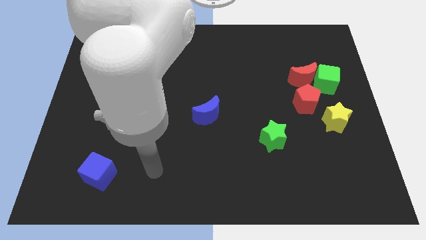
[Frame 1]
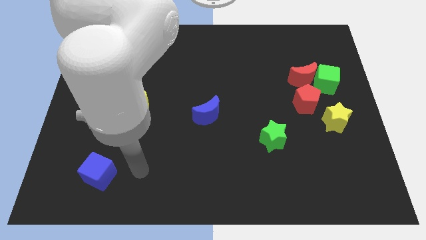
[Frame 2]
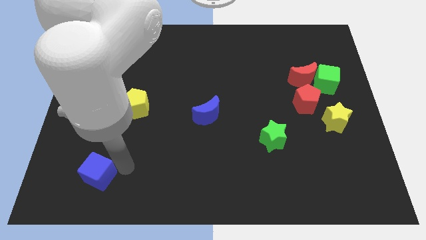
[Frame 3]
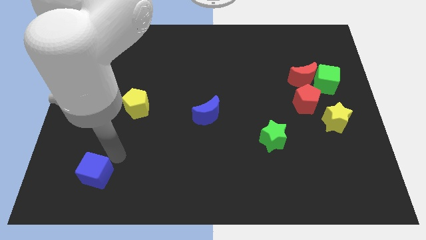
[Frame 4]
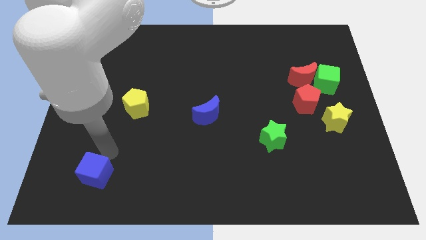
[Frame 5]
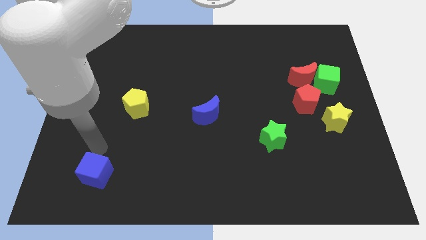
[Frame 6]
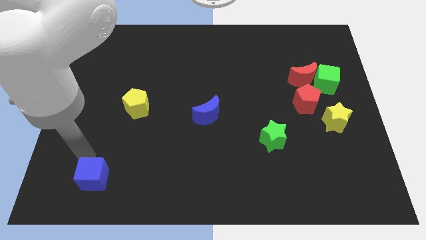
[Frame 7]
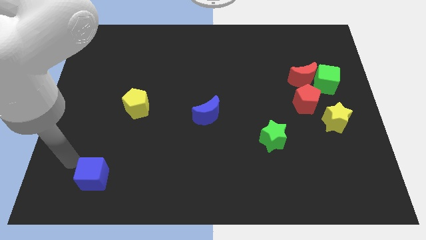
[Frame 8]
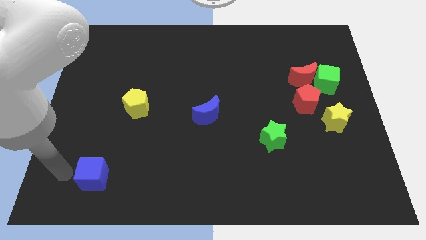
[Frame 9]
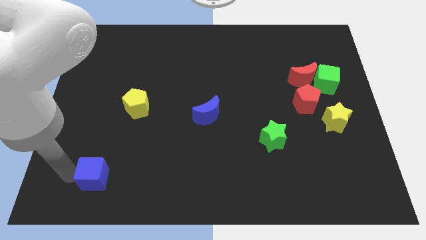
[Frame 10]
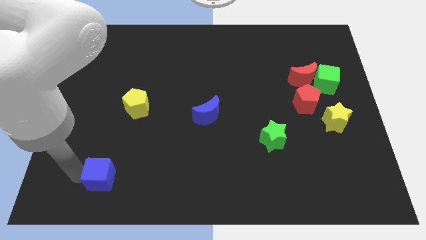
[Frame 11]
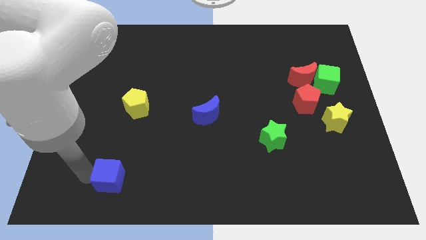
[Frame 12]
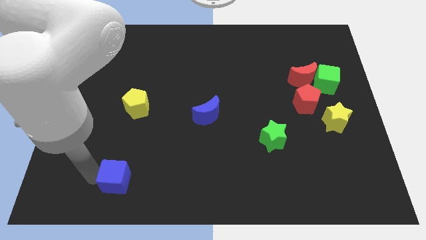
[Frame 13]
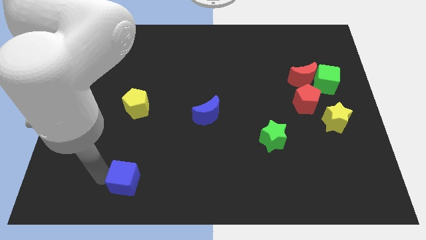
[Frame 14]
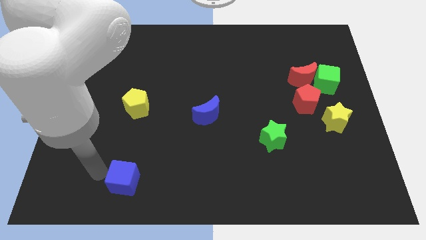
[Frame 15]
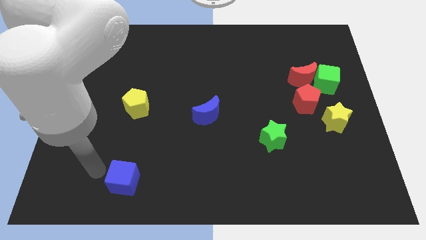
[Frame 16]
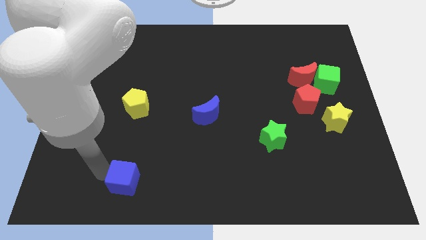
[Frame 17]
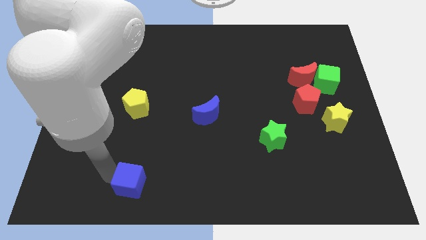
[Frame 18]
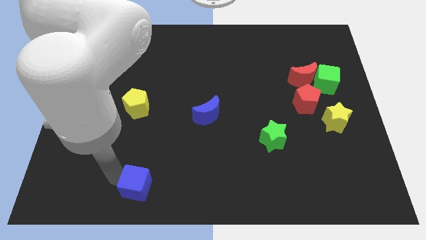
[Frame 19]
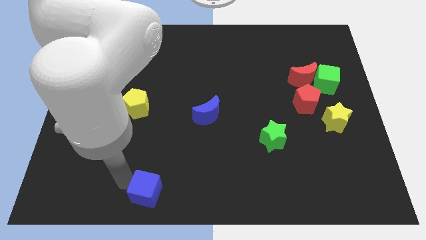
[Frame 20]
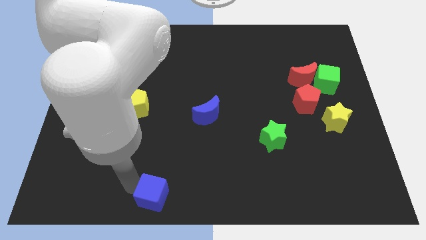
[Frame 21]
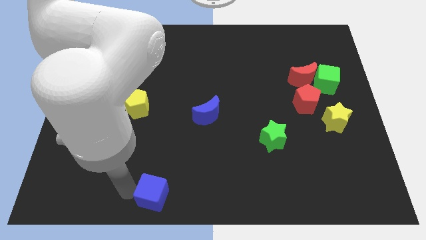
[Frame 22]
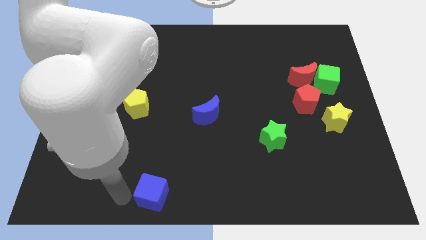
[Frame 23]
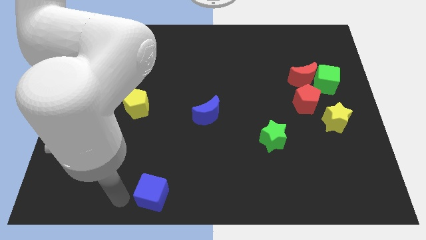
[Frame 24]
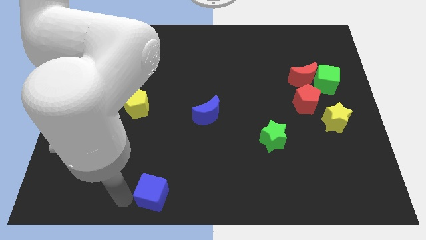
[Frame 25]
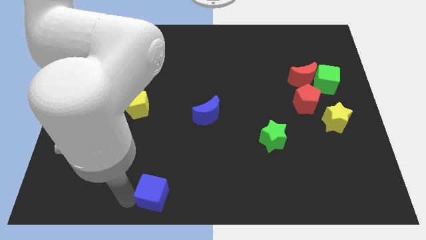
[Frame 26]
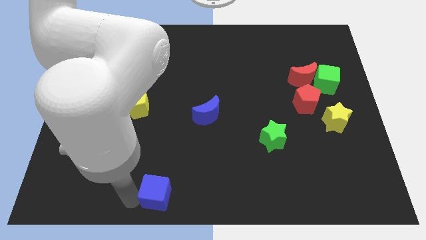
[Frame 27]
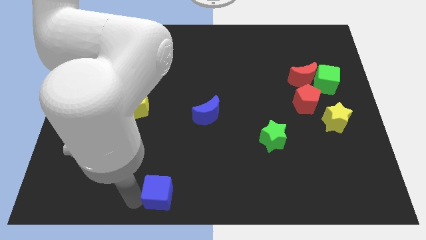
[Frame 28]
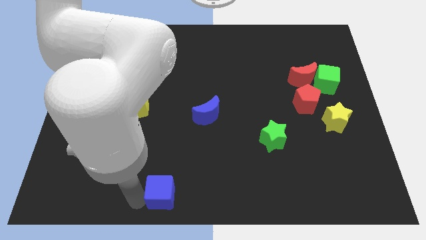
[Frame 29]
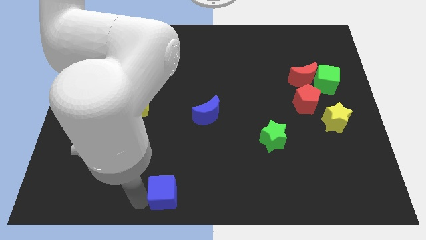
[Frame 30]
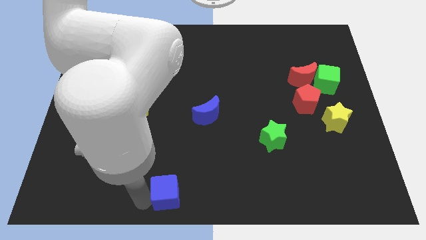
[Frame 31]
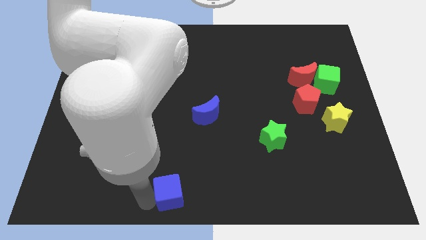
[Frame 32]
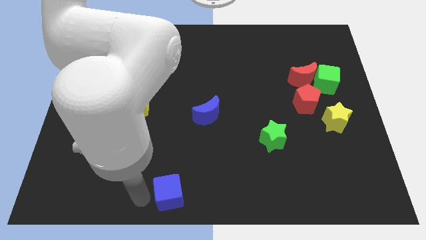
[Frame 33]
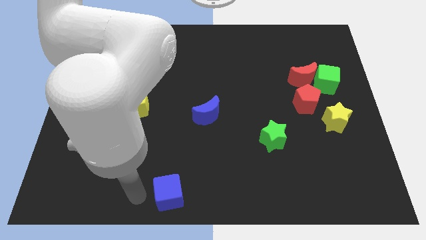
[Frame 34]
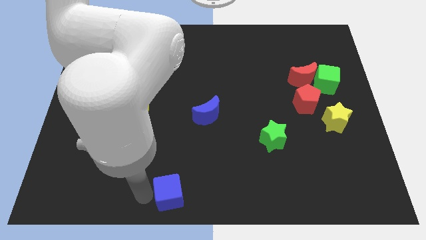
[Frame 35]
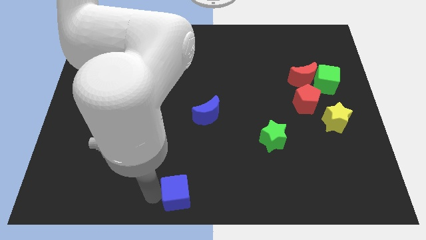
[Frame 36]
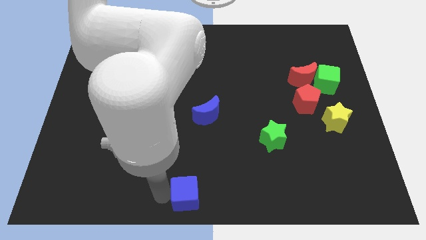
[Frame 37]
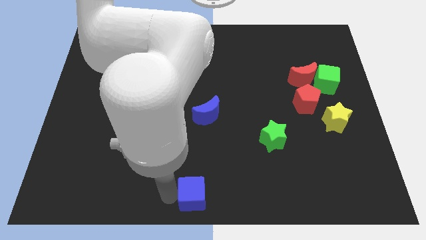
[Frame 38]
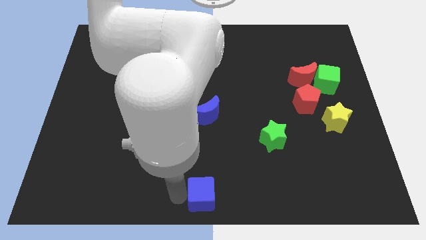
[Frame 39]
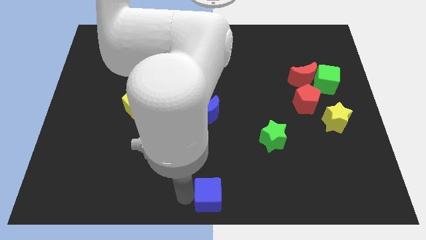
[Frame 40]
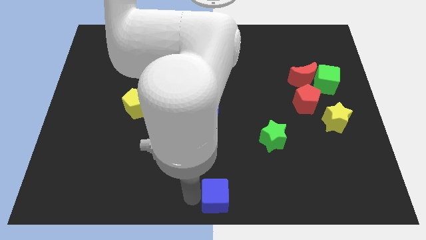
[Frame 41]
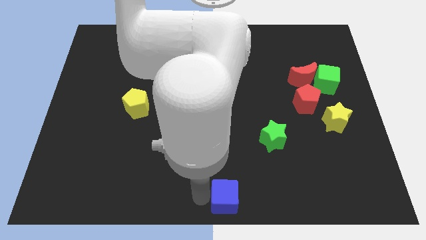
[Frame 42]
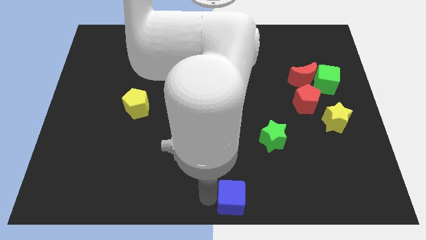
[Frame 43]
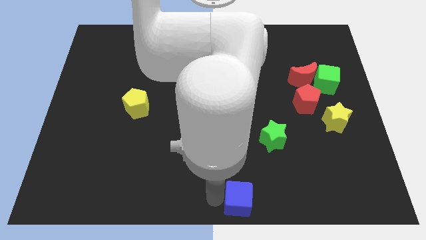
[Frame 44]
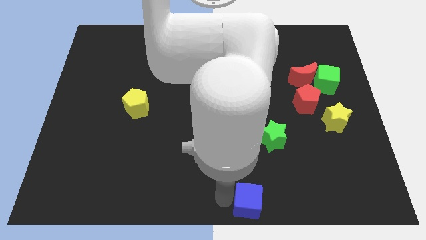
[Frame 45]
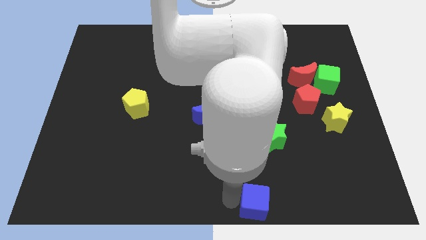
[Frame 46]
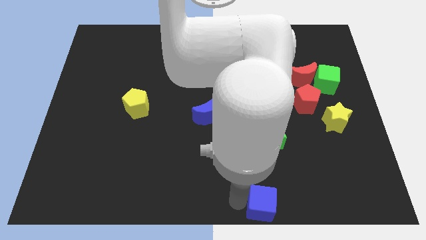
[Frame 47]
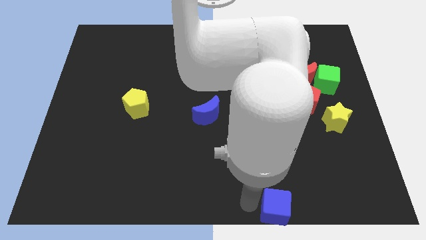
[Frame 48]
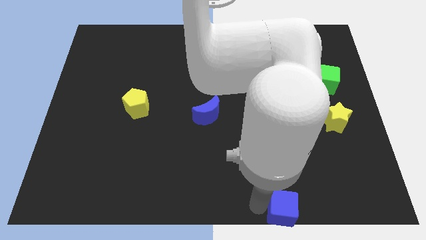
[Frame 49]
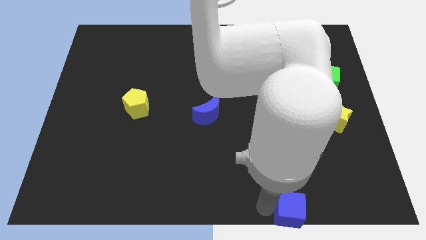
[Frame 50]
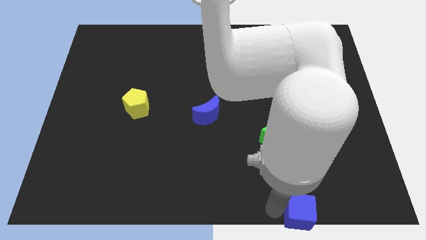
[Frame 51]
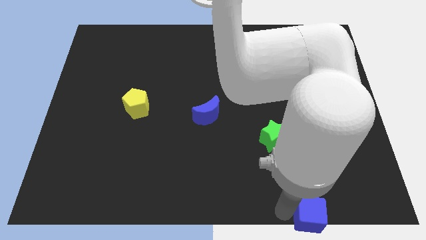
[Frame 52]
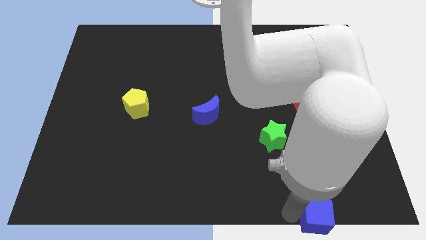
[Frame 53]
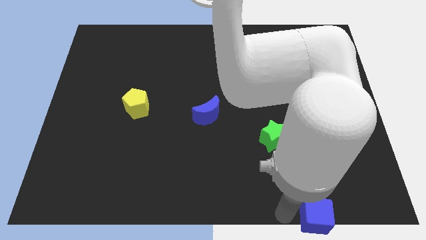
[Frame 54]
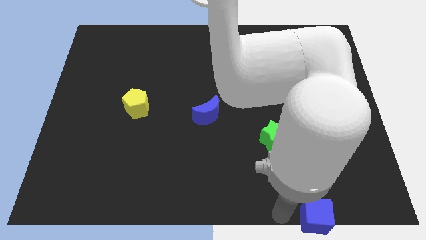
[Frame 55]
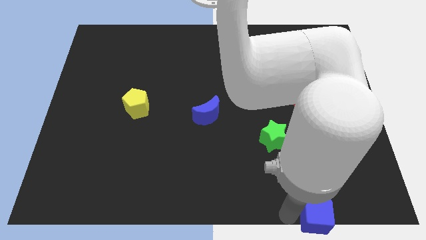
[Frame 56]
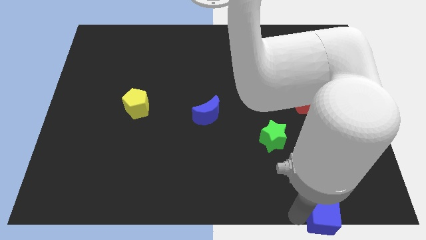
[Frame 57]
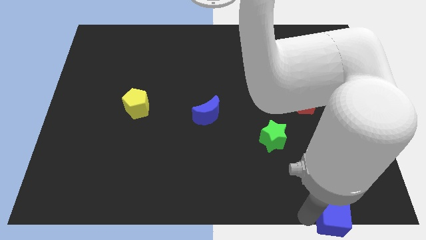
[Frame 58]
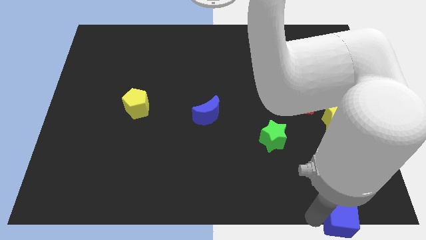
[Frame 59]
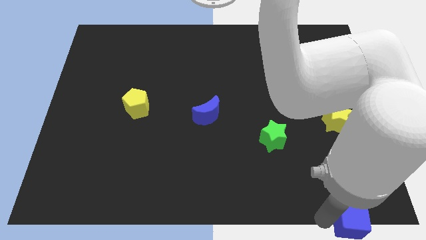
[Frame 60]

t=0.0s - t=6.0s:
put the blue cube to the bottom right corner

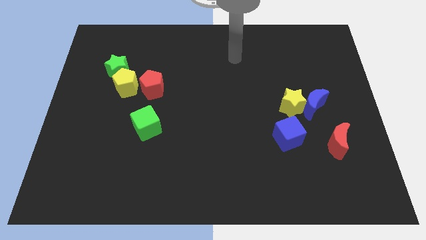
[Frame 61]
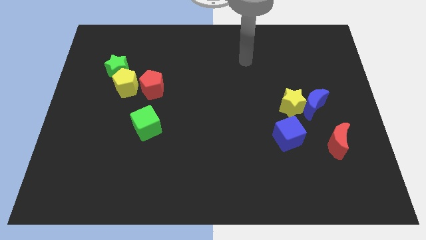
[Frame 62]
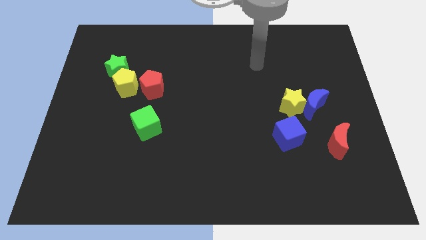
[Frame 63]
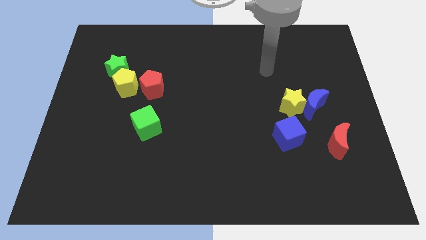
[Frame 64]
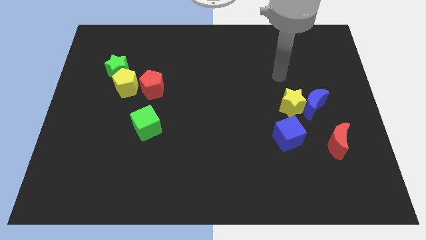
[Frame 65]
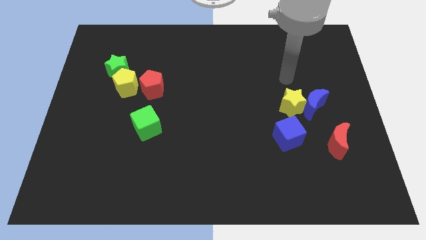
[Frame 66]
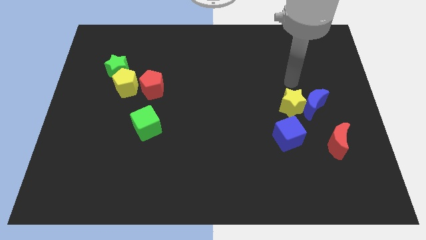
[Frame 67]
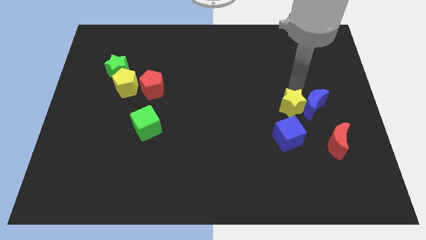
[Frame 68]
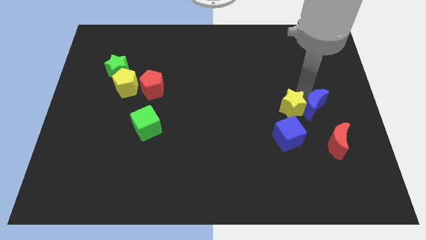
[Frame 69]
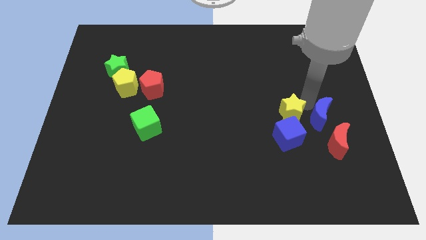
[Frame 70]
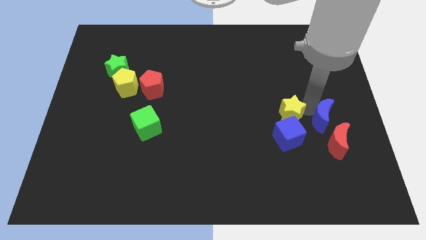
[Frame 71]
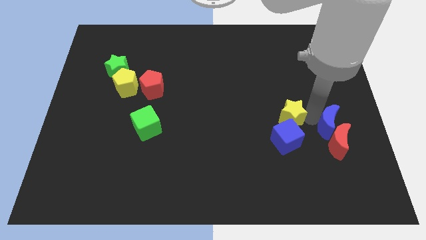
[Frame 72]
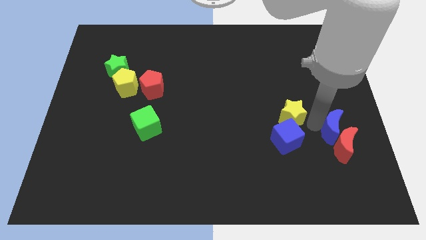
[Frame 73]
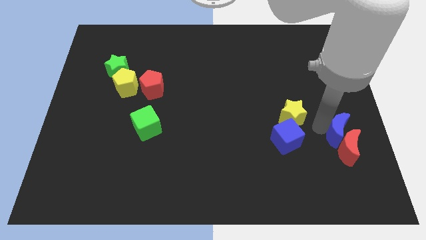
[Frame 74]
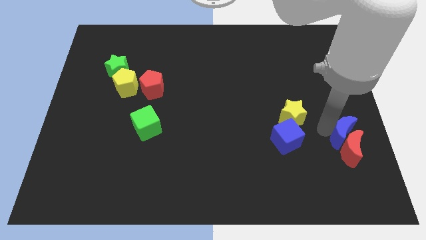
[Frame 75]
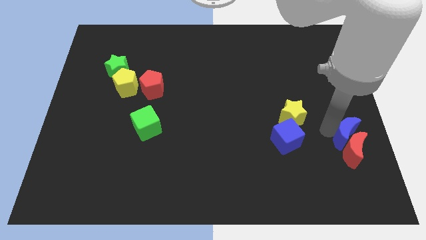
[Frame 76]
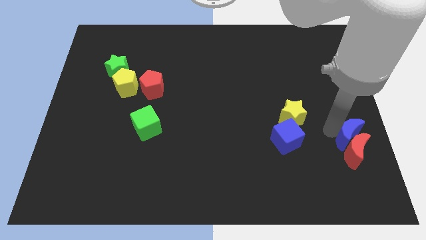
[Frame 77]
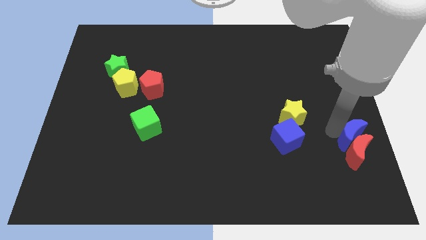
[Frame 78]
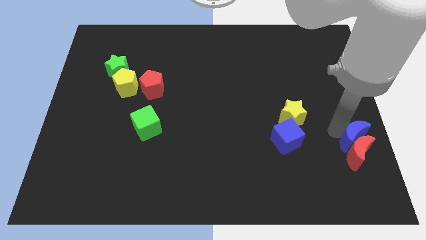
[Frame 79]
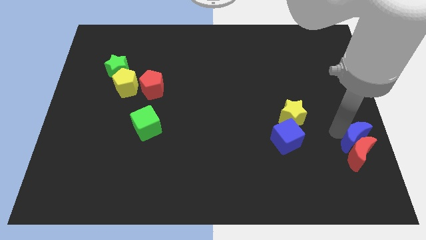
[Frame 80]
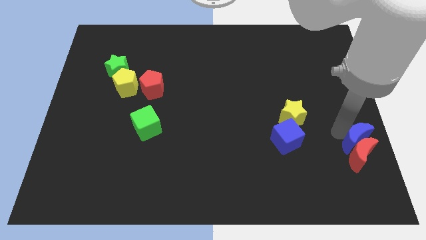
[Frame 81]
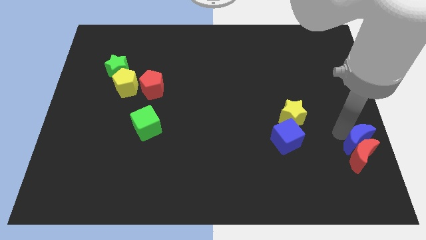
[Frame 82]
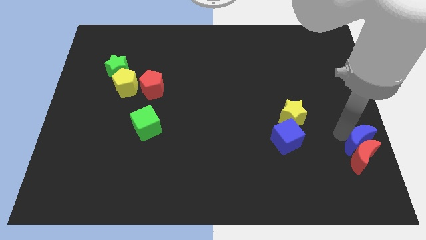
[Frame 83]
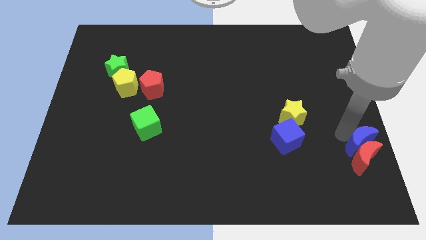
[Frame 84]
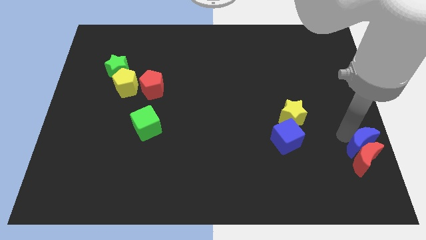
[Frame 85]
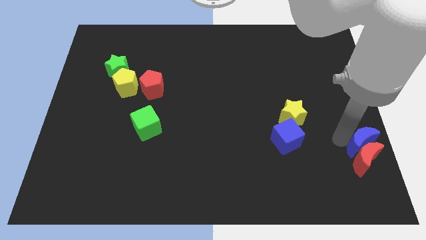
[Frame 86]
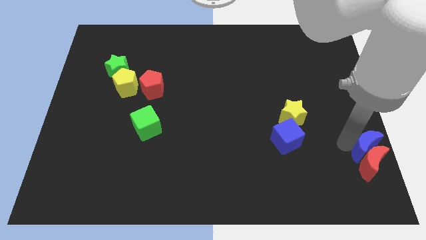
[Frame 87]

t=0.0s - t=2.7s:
move the red moon to the bottom right corner
